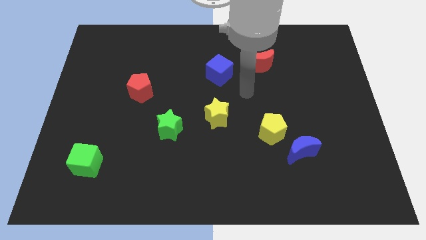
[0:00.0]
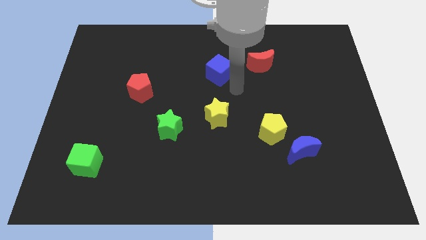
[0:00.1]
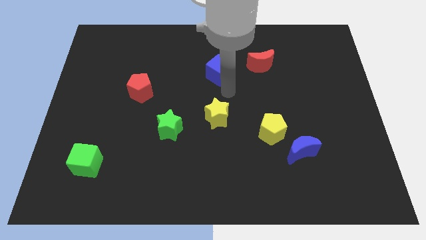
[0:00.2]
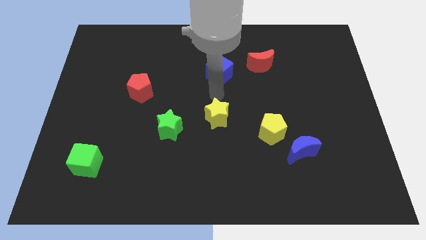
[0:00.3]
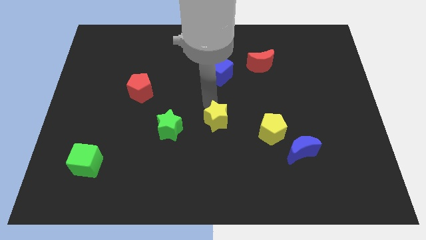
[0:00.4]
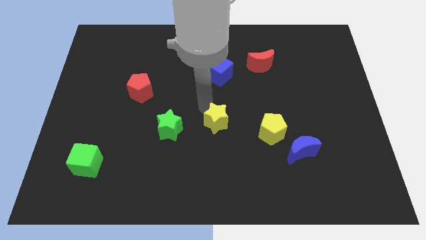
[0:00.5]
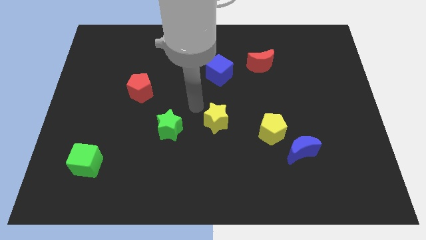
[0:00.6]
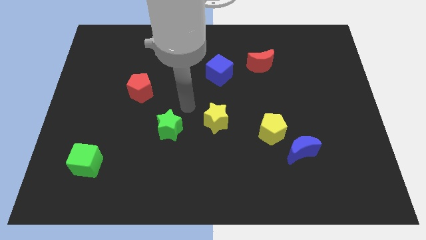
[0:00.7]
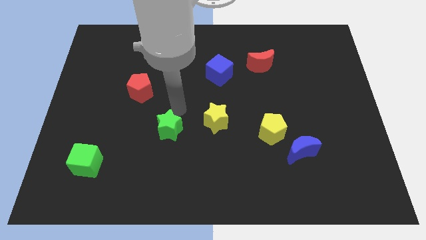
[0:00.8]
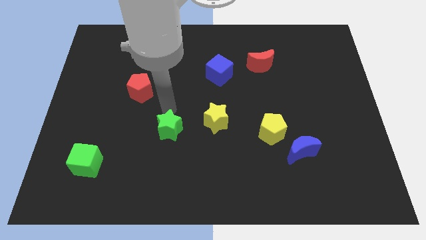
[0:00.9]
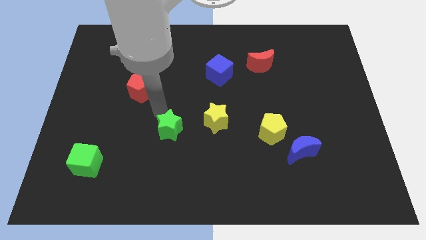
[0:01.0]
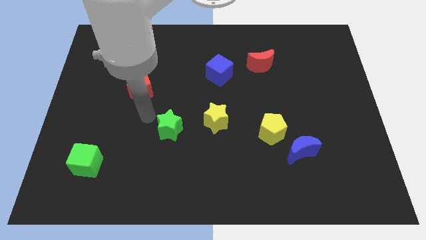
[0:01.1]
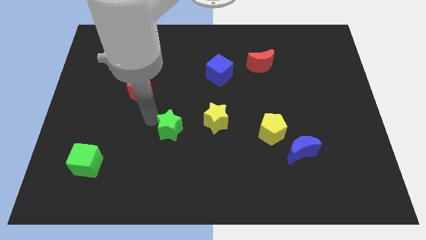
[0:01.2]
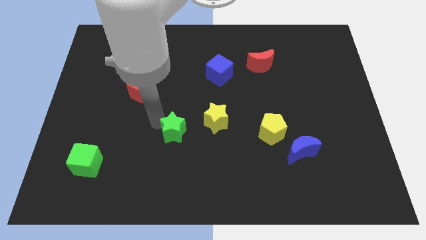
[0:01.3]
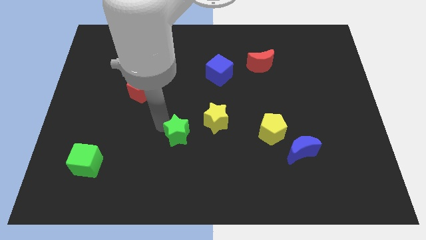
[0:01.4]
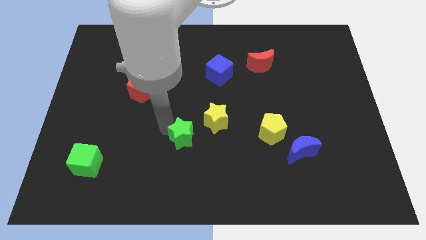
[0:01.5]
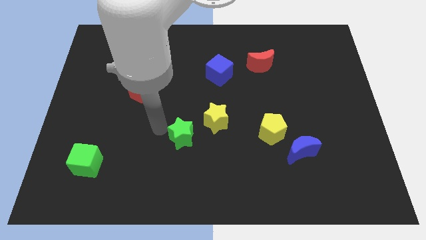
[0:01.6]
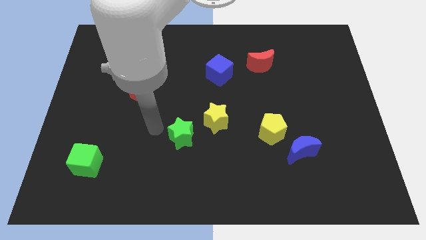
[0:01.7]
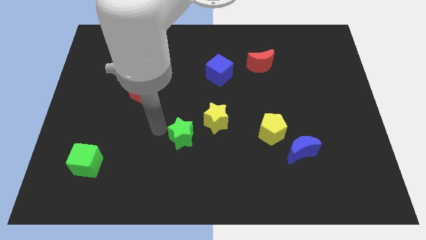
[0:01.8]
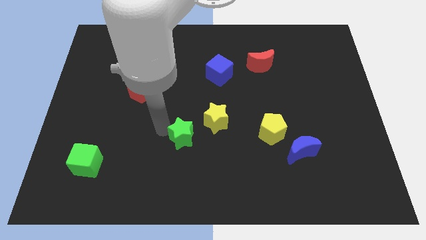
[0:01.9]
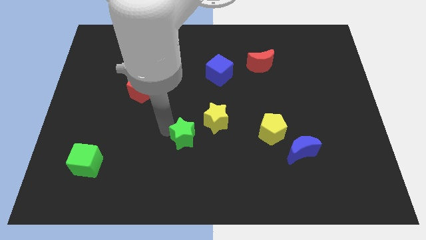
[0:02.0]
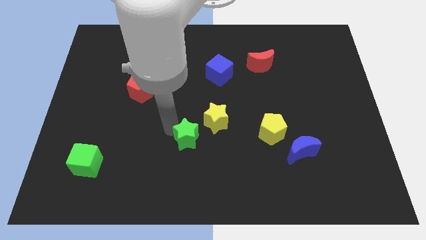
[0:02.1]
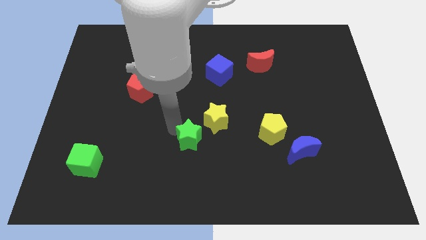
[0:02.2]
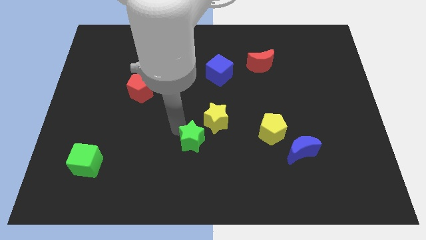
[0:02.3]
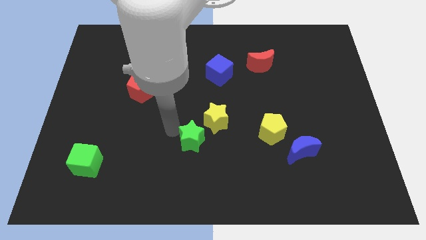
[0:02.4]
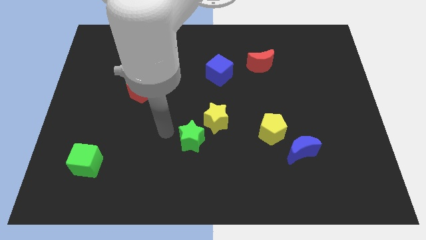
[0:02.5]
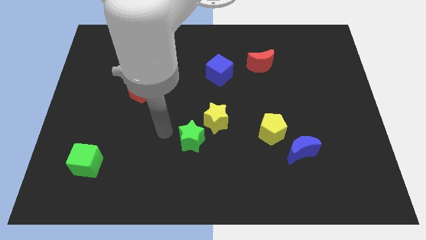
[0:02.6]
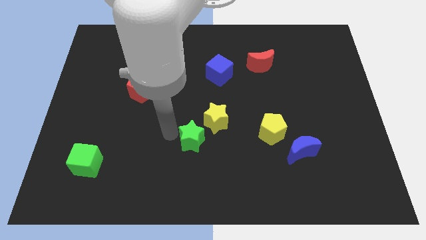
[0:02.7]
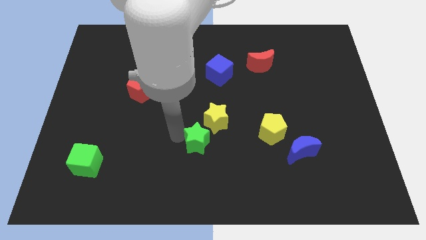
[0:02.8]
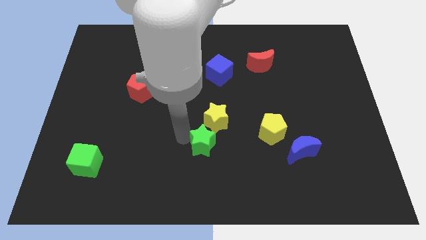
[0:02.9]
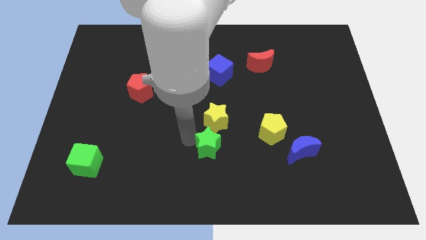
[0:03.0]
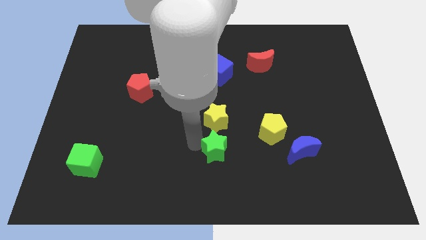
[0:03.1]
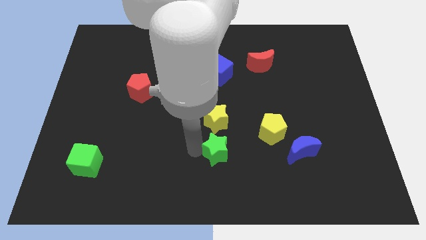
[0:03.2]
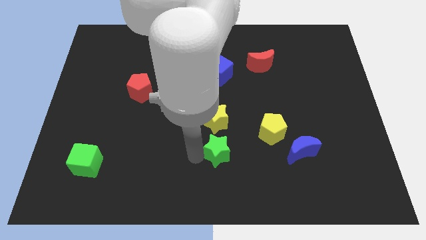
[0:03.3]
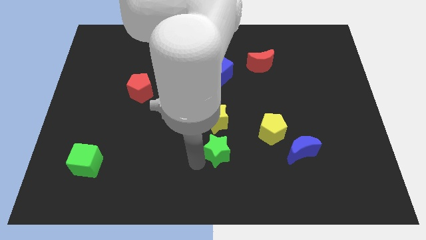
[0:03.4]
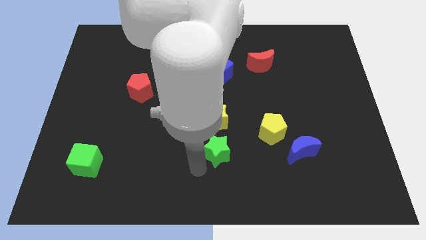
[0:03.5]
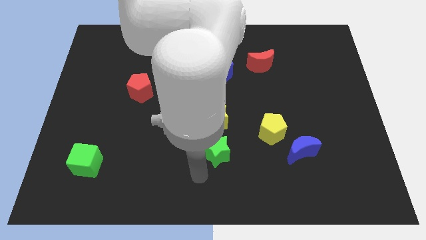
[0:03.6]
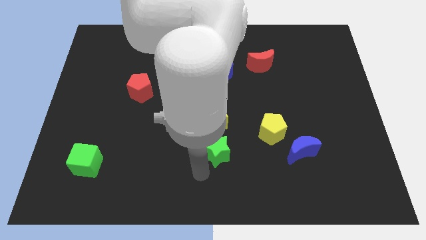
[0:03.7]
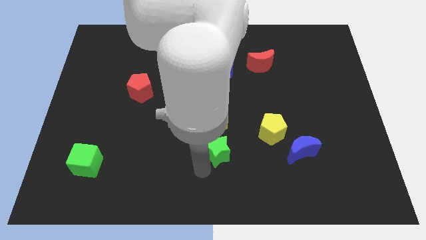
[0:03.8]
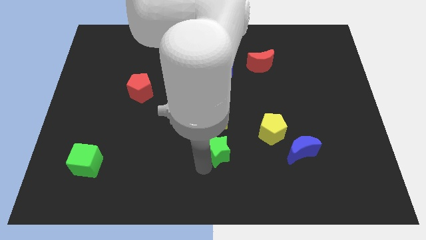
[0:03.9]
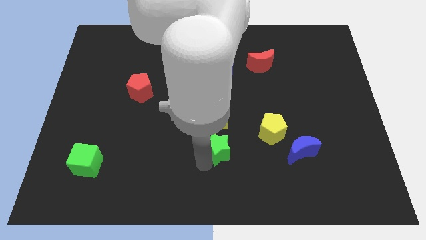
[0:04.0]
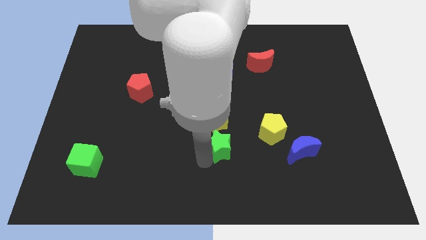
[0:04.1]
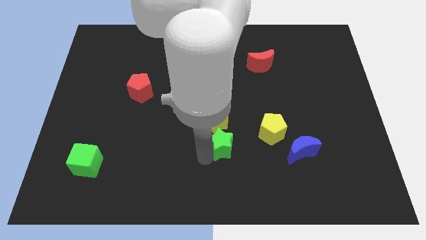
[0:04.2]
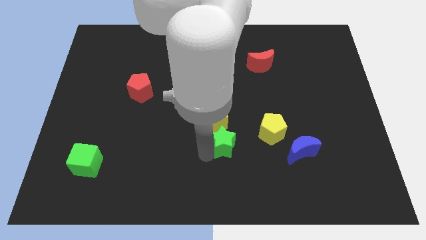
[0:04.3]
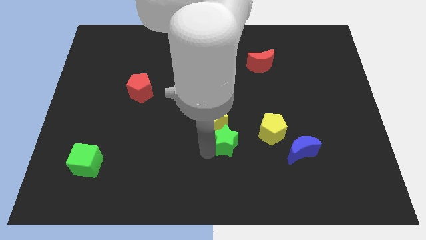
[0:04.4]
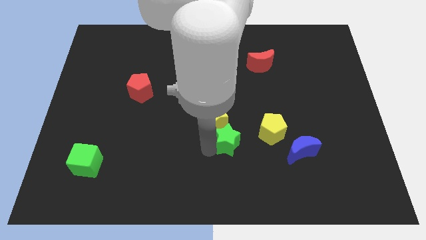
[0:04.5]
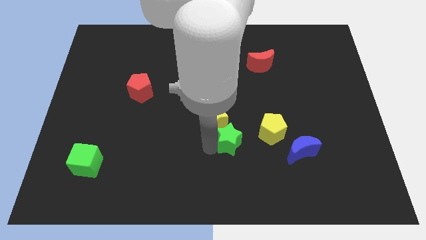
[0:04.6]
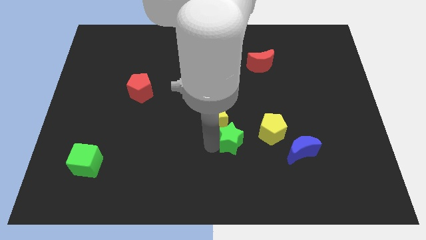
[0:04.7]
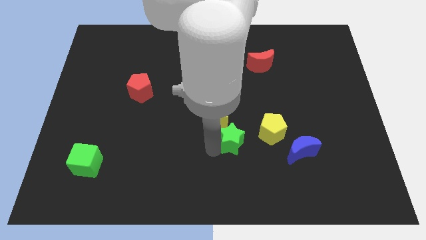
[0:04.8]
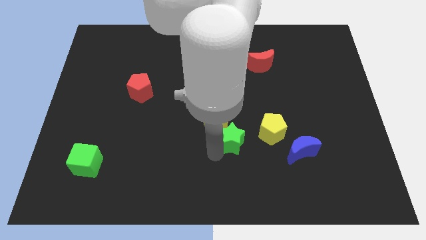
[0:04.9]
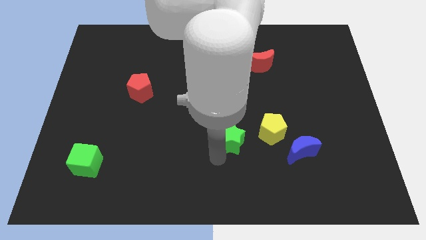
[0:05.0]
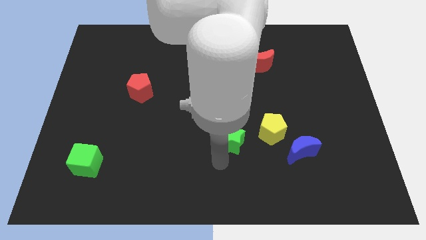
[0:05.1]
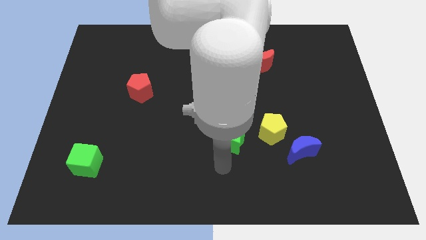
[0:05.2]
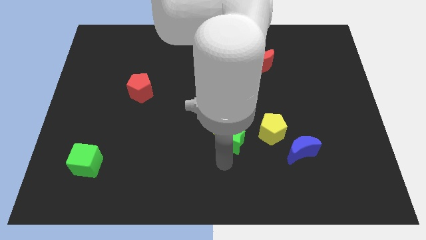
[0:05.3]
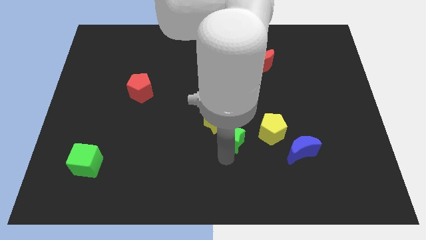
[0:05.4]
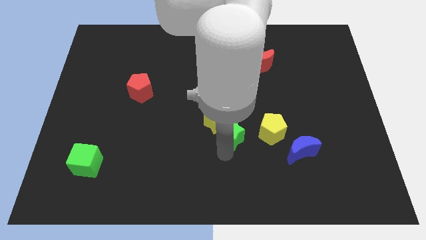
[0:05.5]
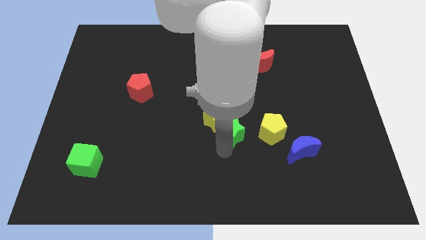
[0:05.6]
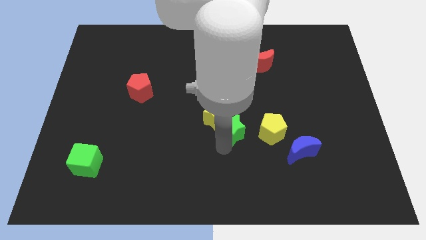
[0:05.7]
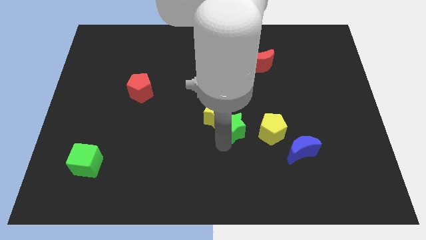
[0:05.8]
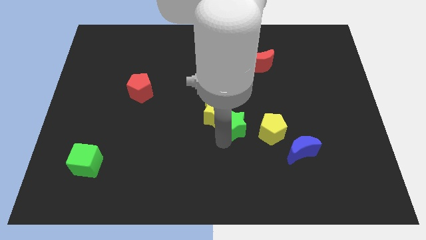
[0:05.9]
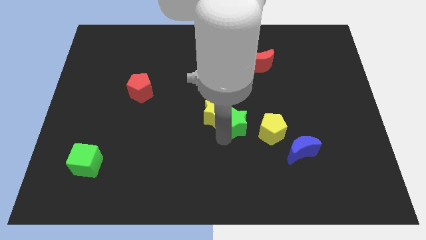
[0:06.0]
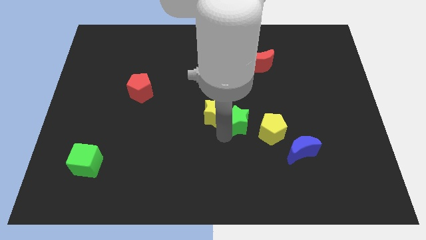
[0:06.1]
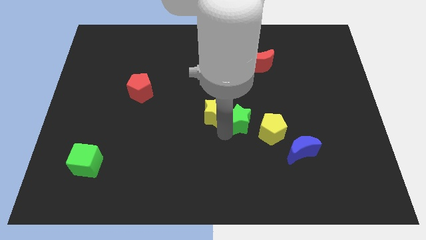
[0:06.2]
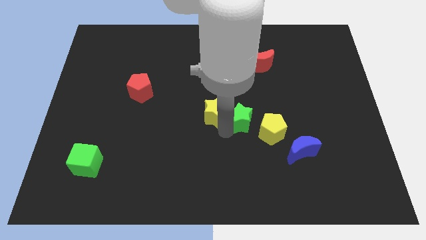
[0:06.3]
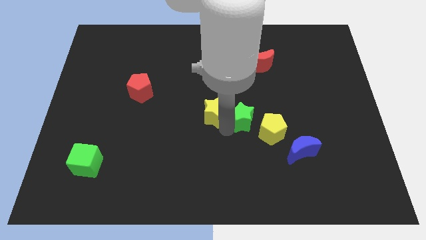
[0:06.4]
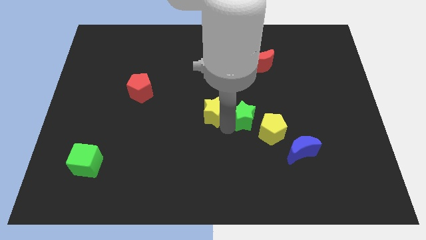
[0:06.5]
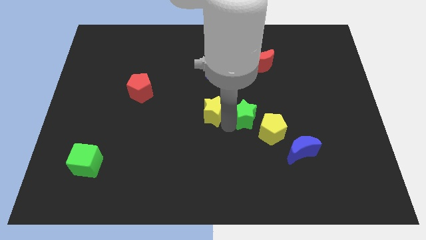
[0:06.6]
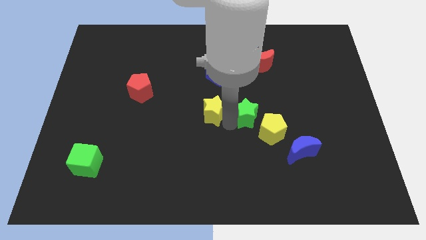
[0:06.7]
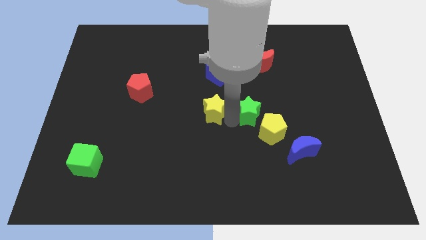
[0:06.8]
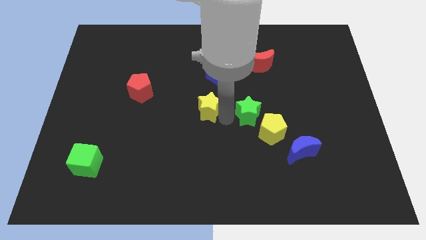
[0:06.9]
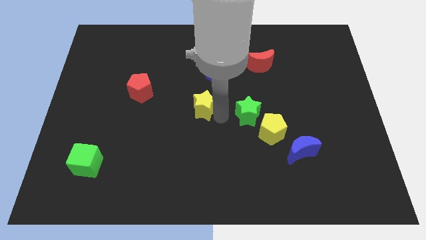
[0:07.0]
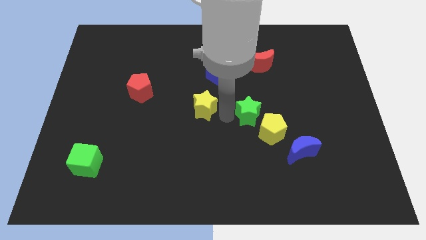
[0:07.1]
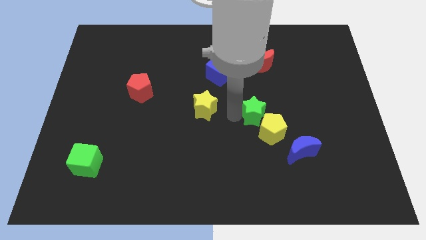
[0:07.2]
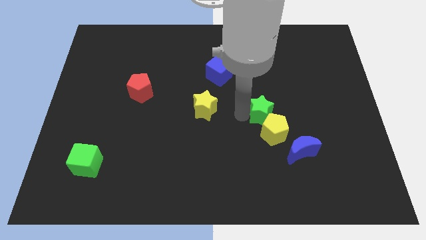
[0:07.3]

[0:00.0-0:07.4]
move the green star to the right
